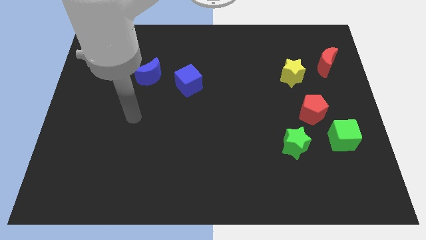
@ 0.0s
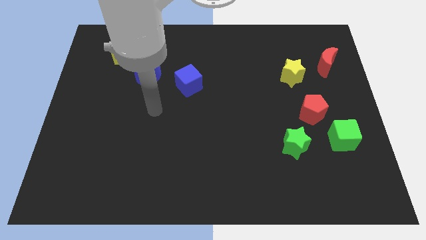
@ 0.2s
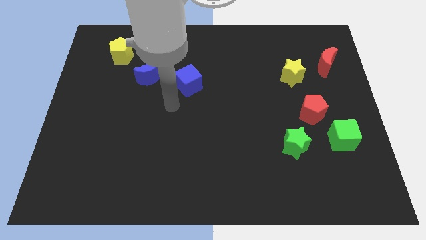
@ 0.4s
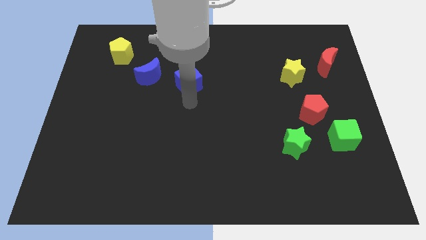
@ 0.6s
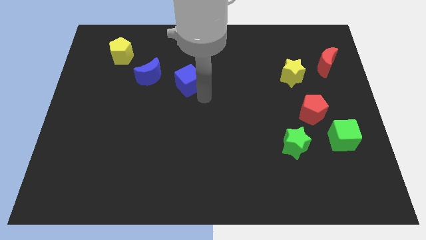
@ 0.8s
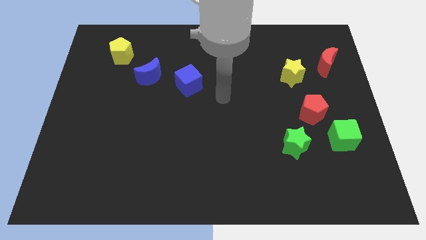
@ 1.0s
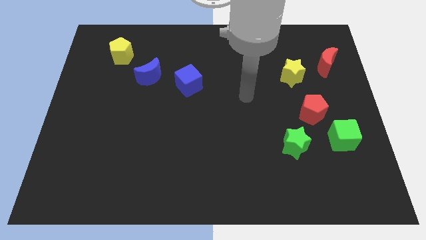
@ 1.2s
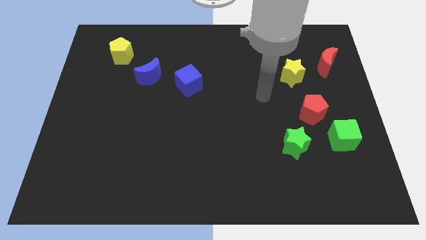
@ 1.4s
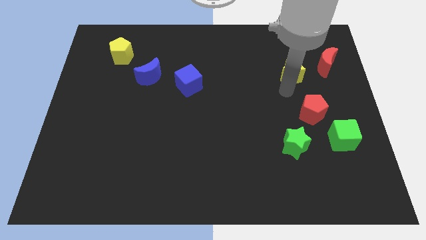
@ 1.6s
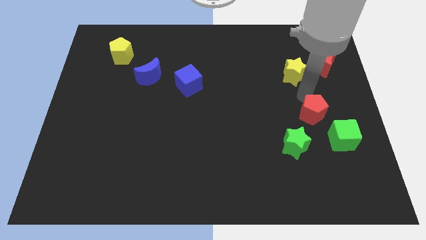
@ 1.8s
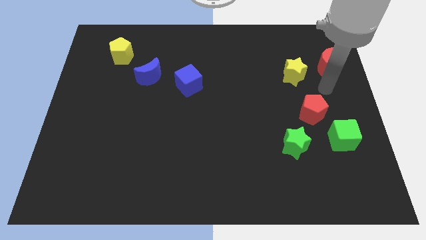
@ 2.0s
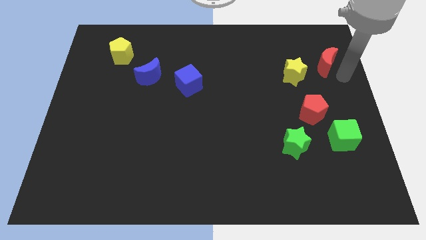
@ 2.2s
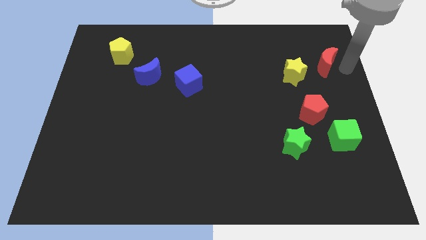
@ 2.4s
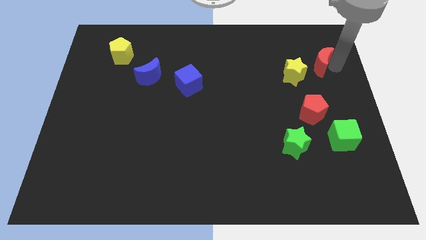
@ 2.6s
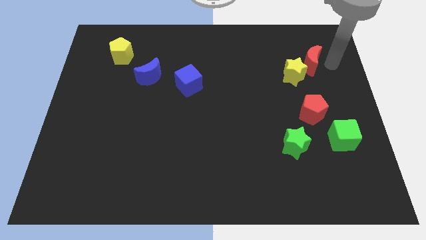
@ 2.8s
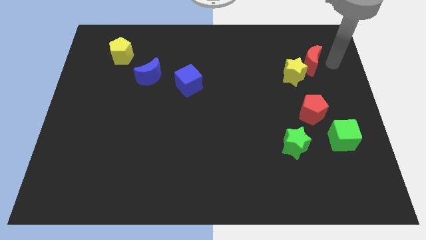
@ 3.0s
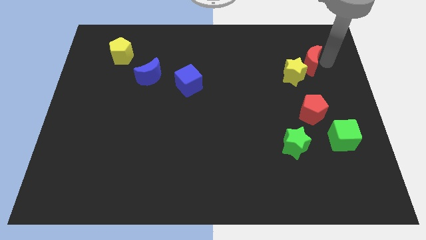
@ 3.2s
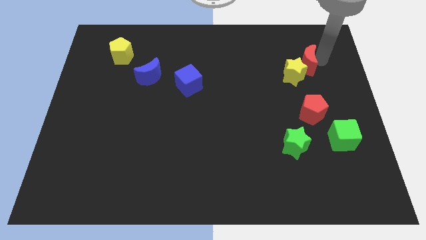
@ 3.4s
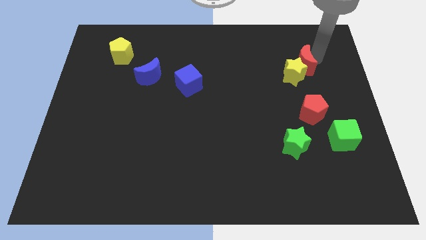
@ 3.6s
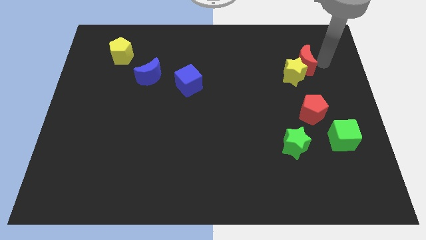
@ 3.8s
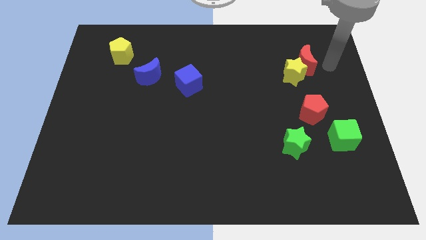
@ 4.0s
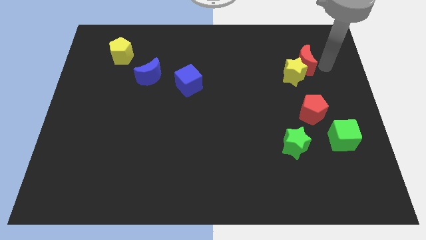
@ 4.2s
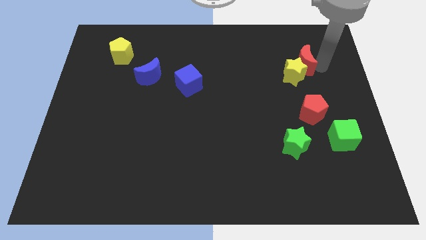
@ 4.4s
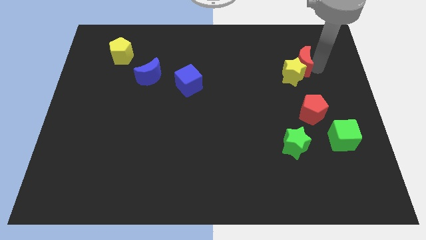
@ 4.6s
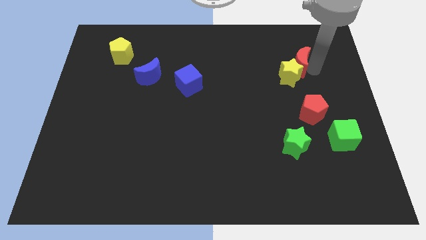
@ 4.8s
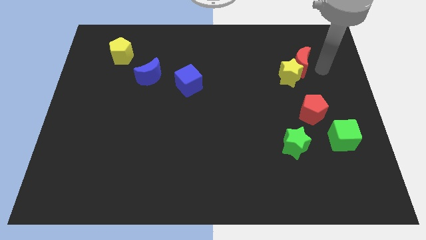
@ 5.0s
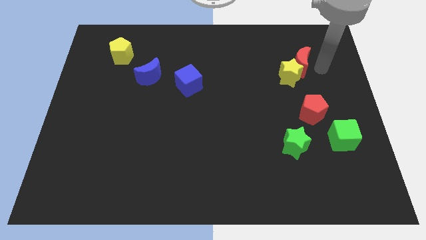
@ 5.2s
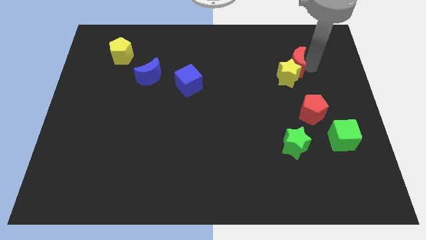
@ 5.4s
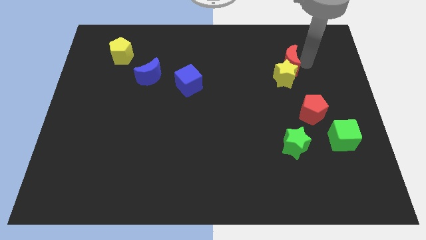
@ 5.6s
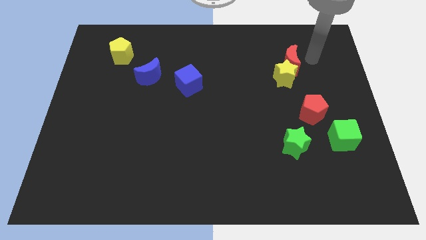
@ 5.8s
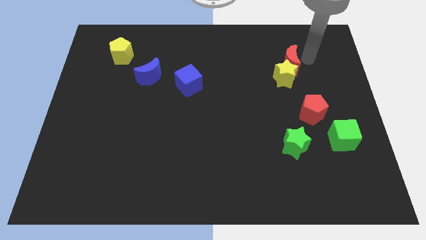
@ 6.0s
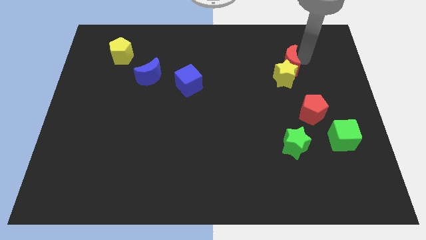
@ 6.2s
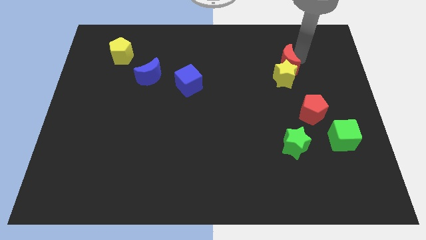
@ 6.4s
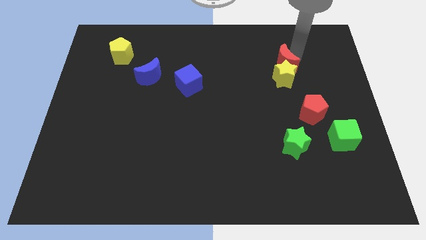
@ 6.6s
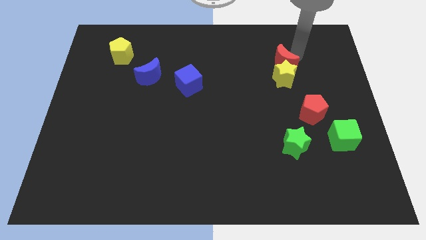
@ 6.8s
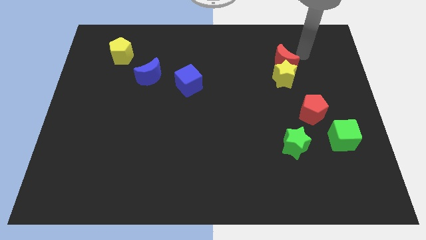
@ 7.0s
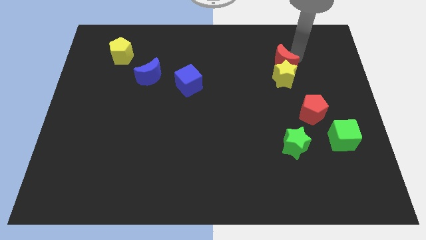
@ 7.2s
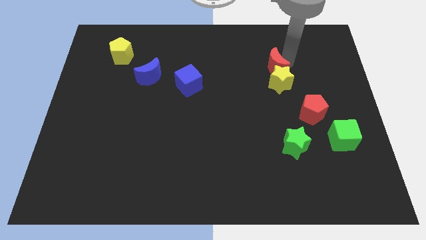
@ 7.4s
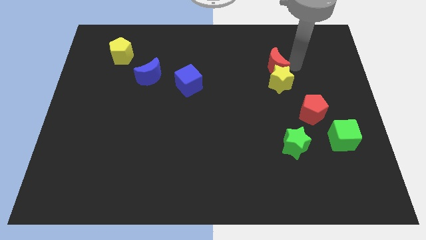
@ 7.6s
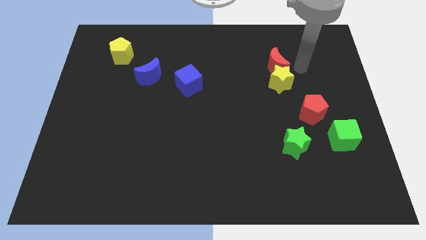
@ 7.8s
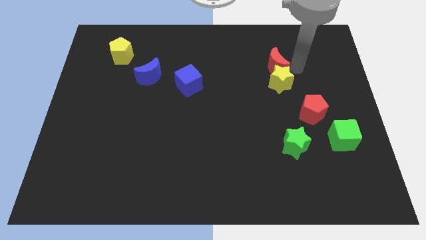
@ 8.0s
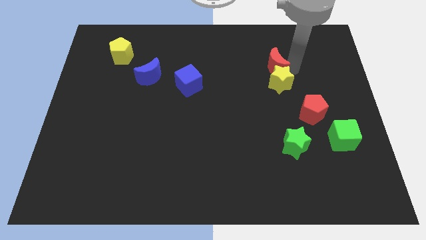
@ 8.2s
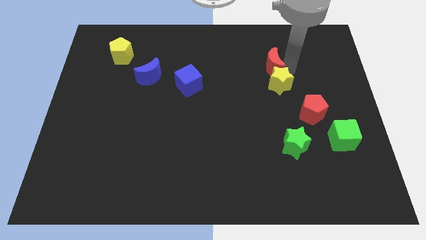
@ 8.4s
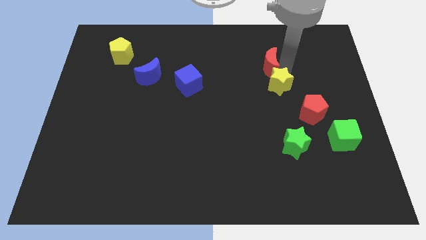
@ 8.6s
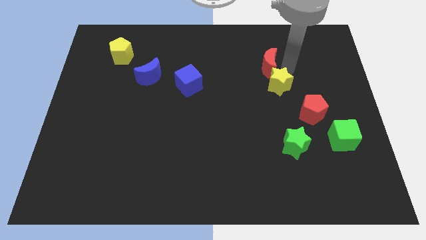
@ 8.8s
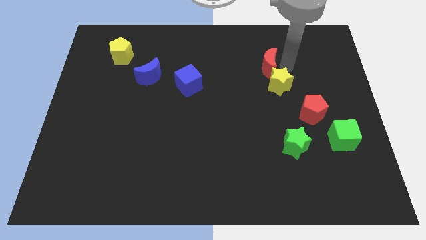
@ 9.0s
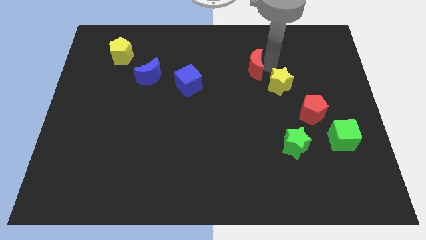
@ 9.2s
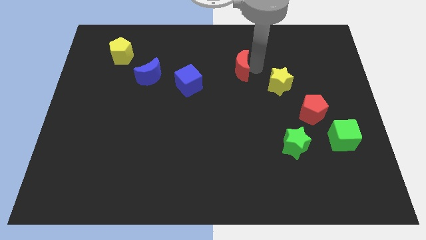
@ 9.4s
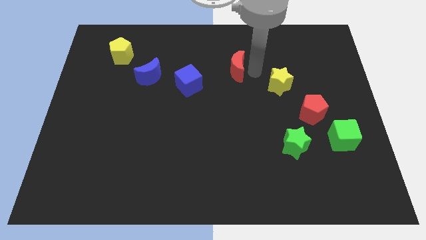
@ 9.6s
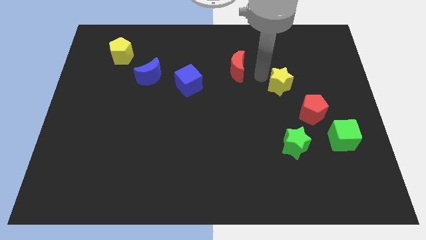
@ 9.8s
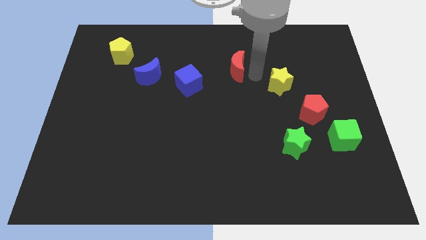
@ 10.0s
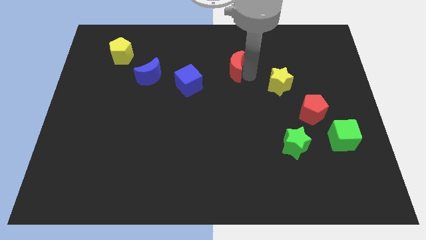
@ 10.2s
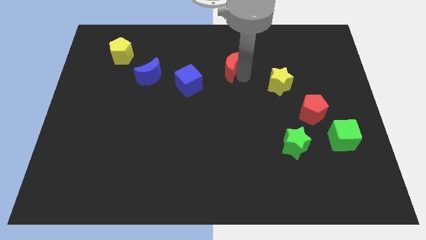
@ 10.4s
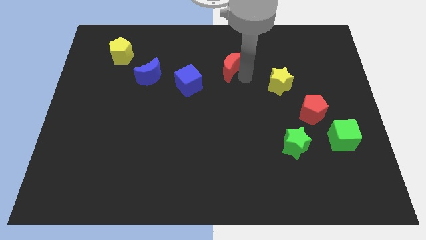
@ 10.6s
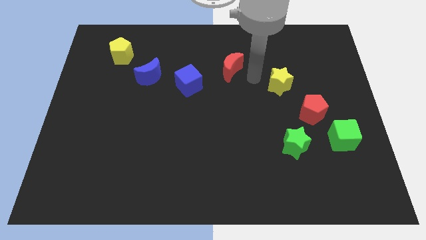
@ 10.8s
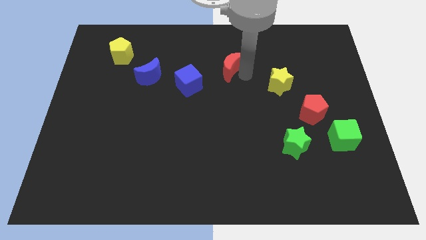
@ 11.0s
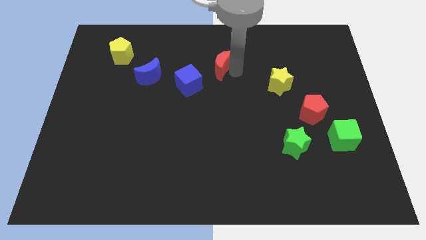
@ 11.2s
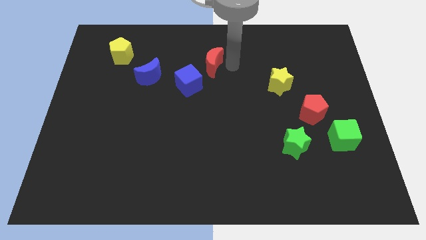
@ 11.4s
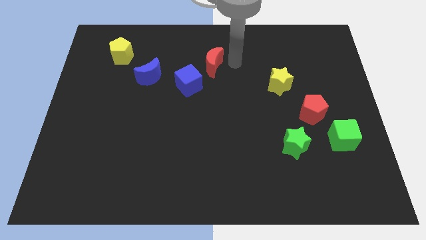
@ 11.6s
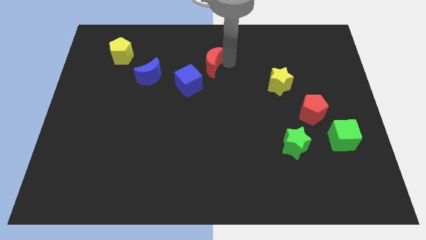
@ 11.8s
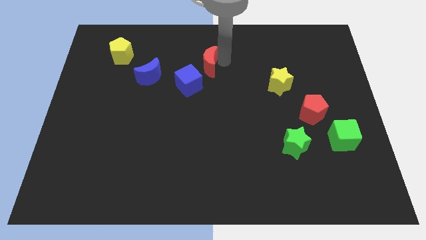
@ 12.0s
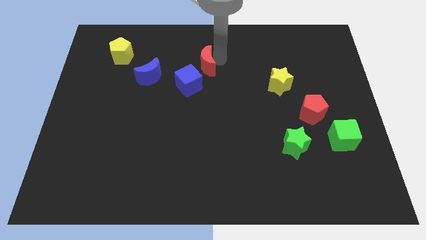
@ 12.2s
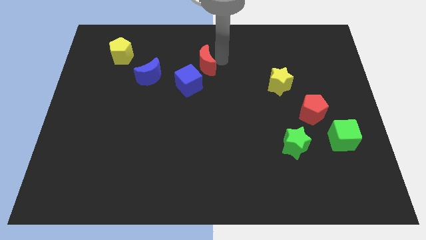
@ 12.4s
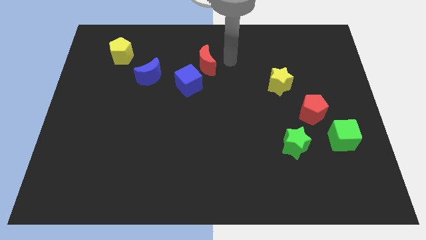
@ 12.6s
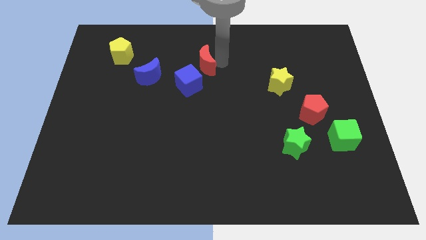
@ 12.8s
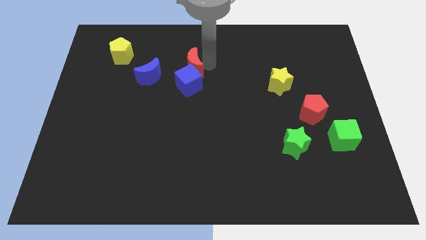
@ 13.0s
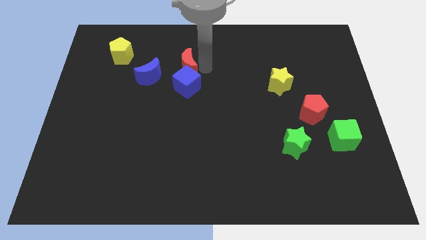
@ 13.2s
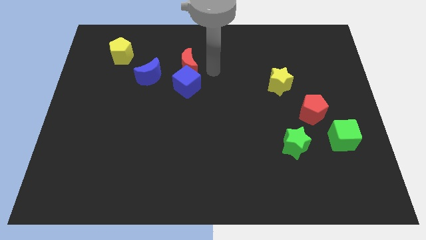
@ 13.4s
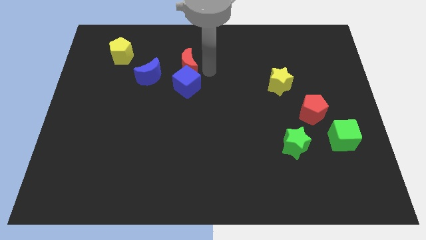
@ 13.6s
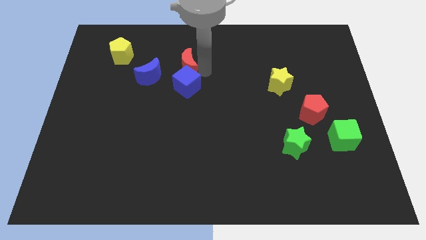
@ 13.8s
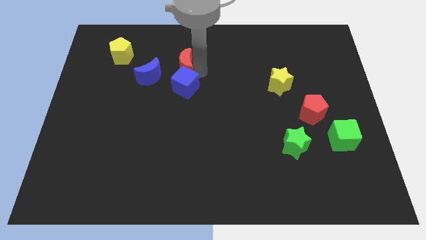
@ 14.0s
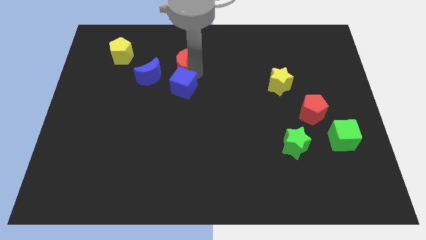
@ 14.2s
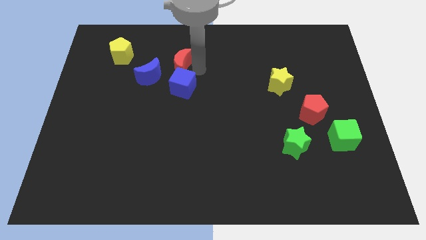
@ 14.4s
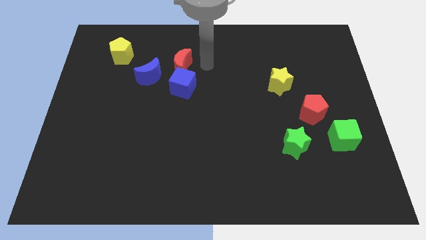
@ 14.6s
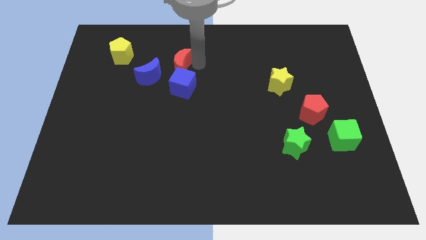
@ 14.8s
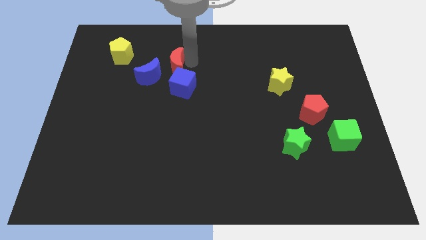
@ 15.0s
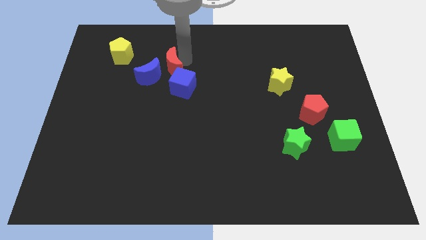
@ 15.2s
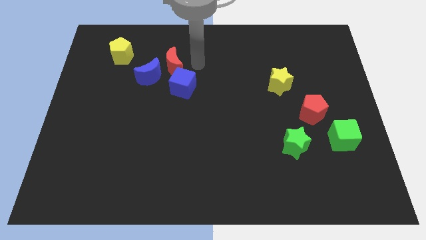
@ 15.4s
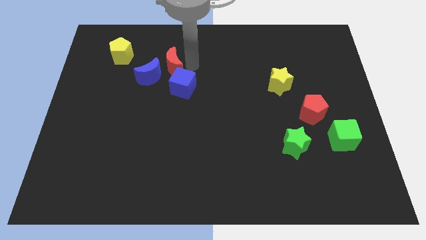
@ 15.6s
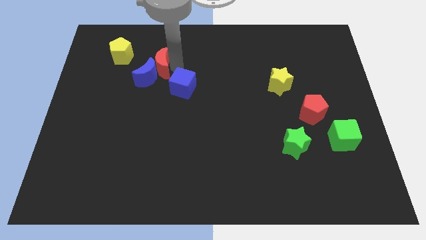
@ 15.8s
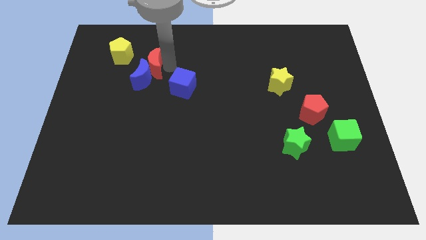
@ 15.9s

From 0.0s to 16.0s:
move the red moon to the bottom right side of the yellow pentagon
